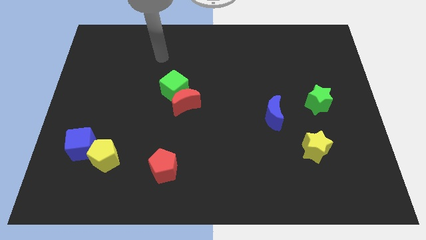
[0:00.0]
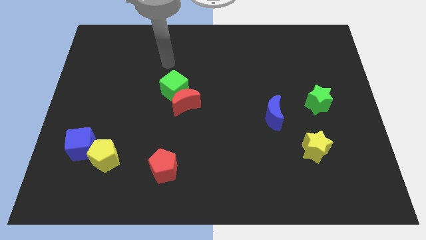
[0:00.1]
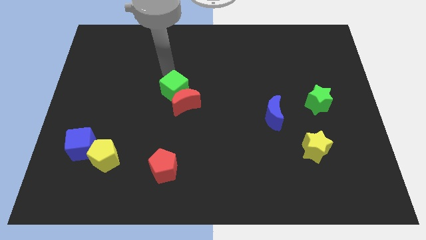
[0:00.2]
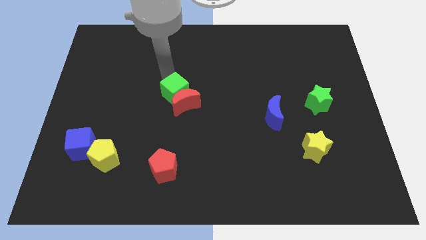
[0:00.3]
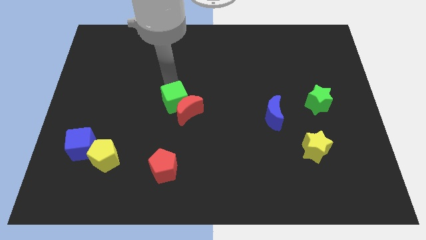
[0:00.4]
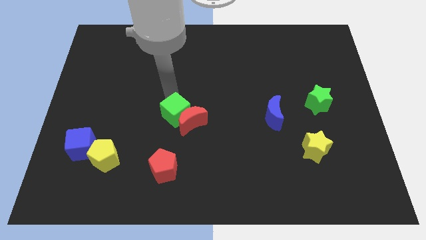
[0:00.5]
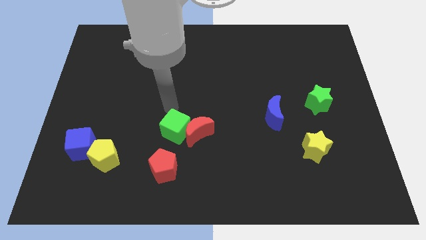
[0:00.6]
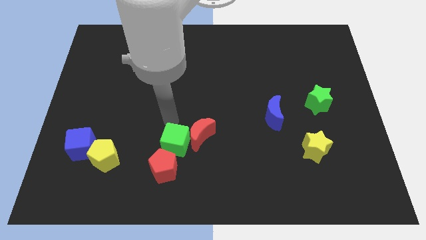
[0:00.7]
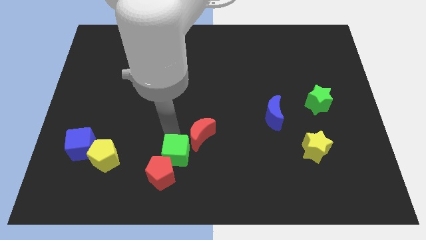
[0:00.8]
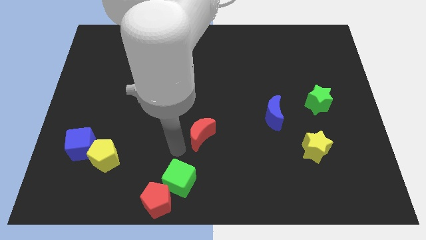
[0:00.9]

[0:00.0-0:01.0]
move the red moon away from the green cube

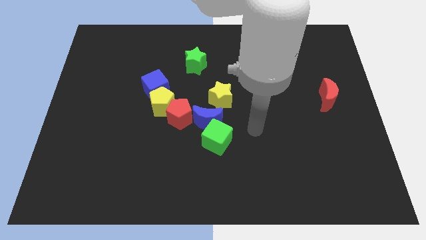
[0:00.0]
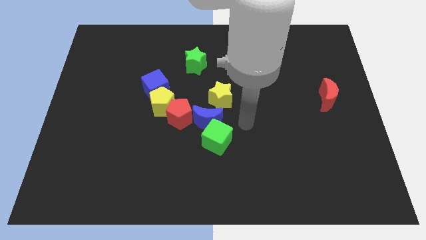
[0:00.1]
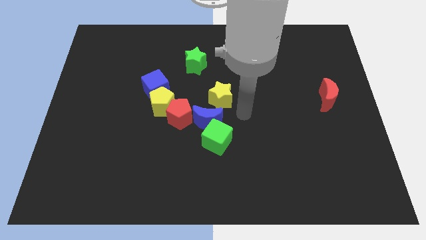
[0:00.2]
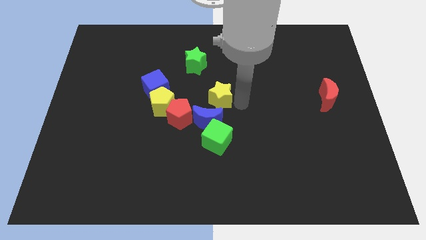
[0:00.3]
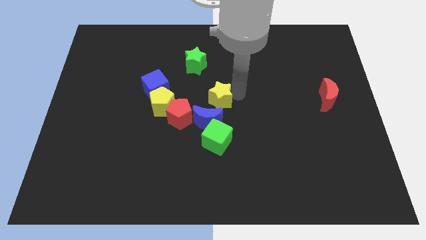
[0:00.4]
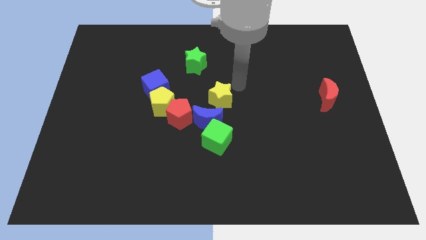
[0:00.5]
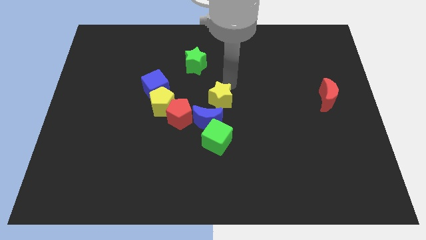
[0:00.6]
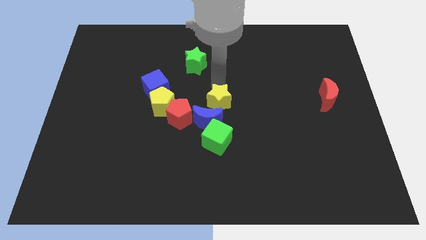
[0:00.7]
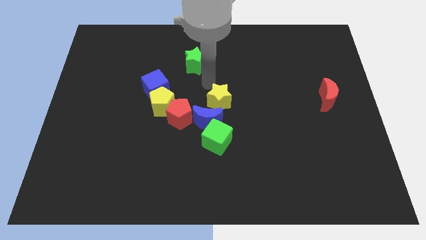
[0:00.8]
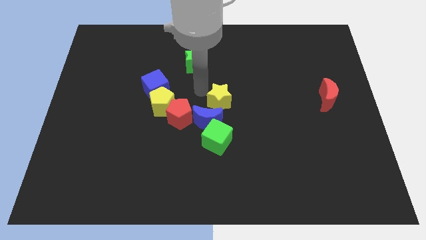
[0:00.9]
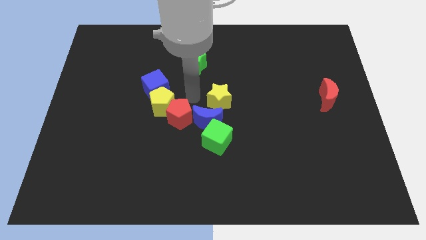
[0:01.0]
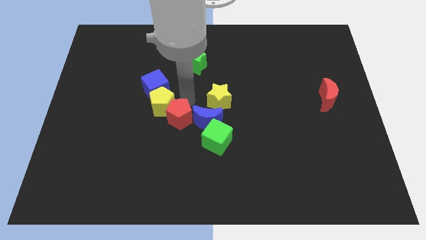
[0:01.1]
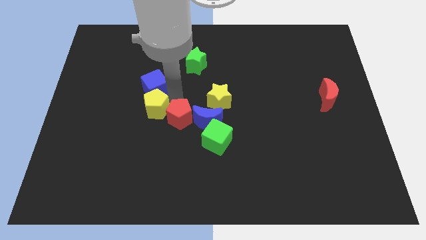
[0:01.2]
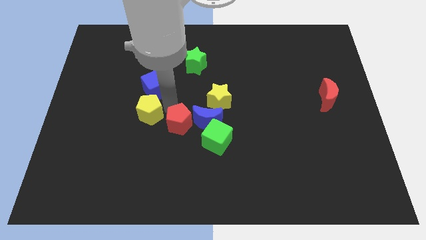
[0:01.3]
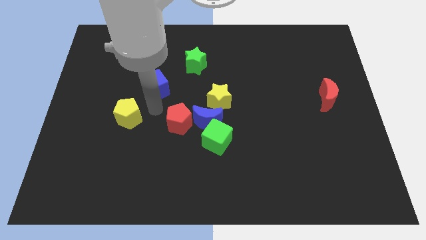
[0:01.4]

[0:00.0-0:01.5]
pull the blue cube apart from the yellow pentagon

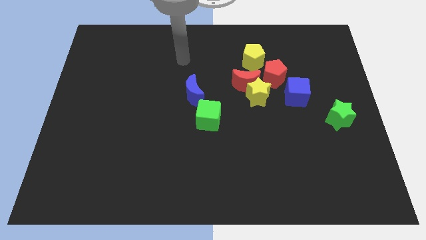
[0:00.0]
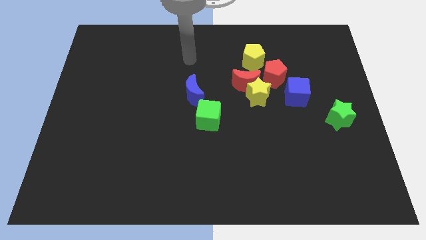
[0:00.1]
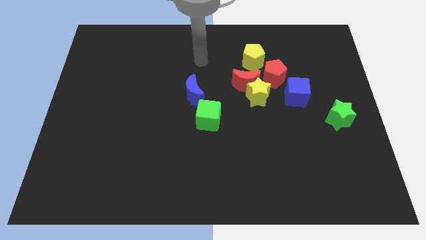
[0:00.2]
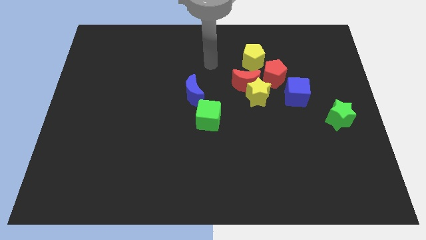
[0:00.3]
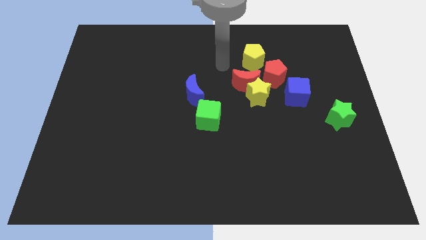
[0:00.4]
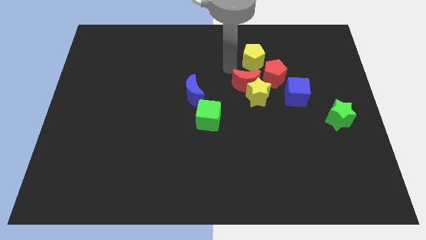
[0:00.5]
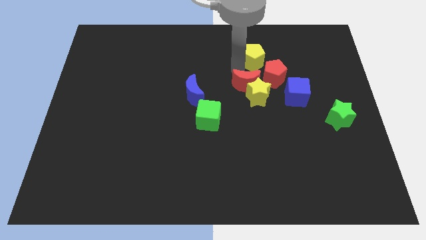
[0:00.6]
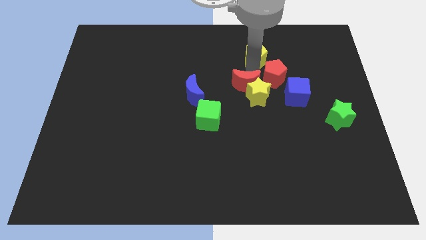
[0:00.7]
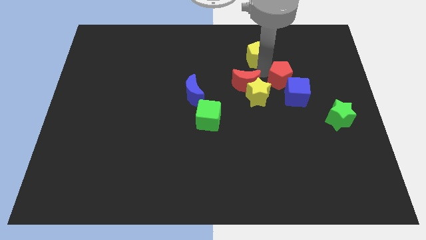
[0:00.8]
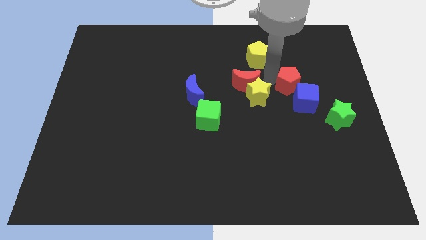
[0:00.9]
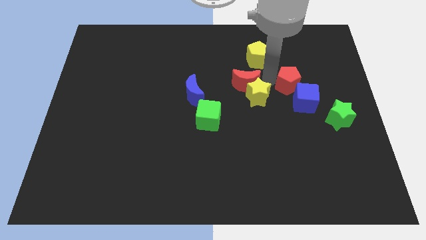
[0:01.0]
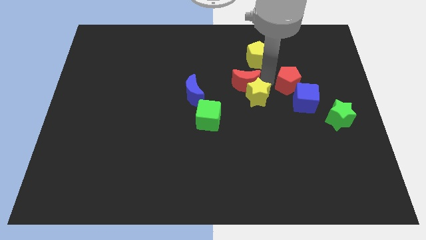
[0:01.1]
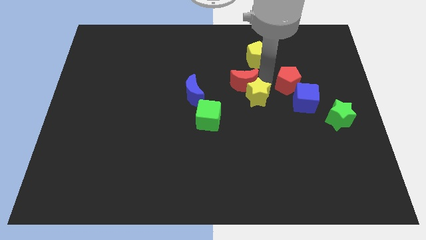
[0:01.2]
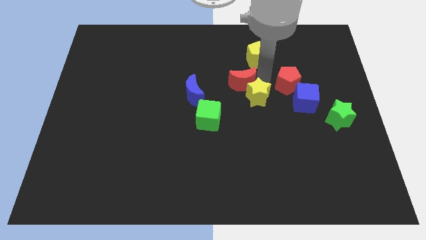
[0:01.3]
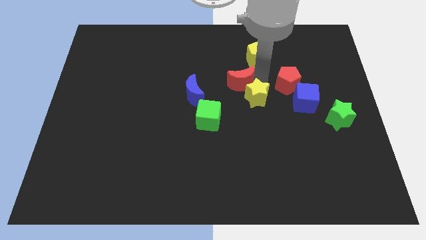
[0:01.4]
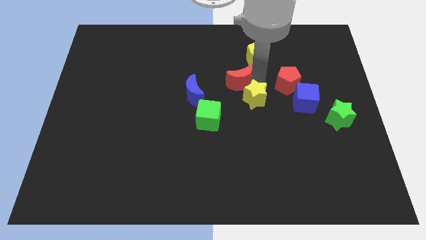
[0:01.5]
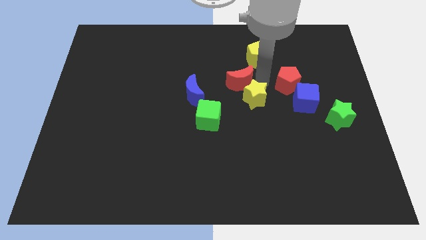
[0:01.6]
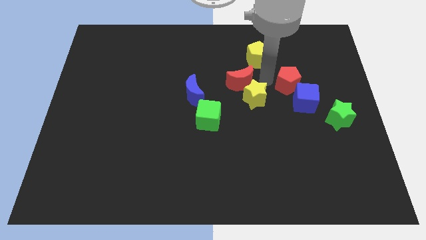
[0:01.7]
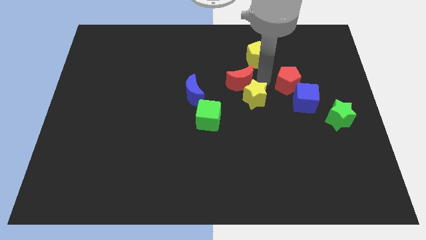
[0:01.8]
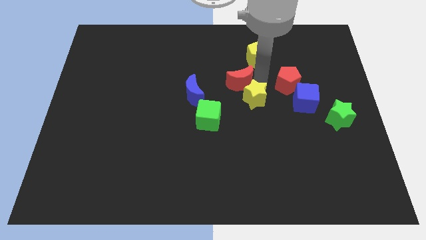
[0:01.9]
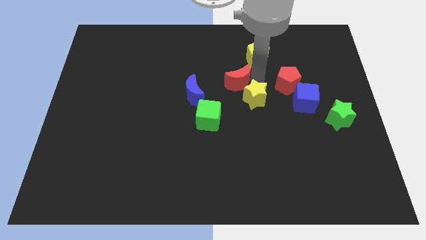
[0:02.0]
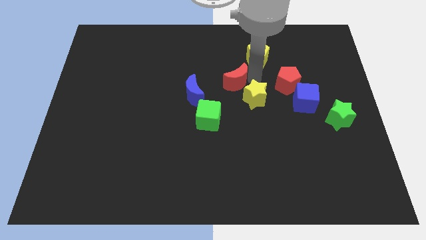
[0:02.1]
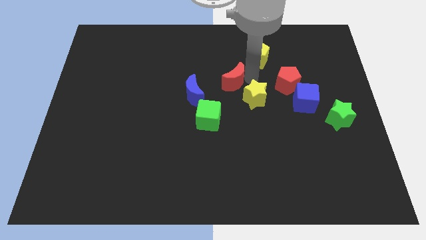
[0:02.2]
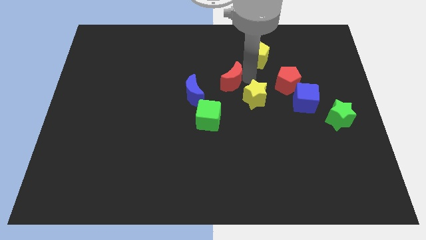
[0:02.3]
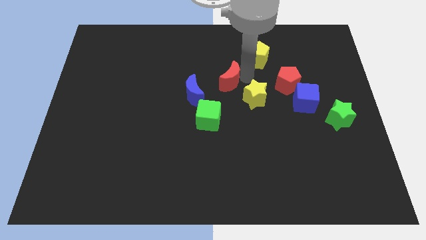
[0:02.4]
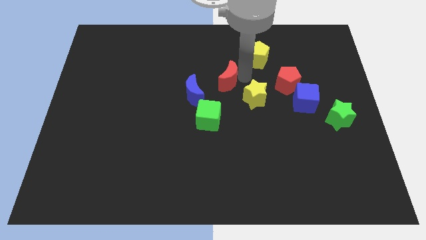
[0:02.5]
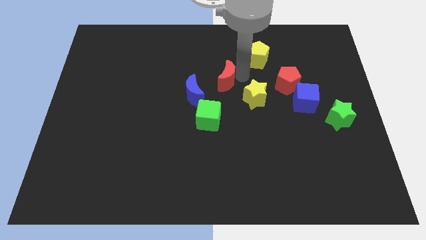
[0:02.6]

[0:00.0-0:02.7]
pull the red moon apart from the yellow star, red pentagon, and yellow pentagon

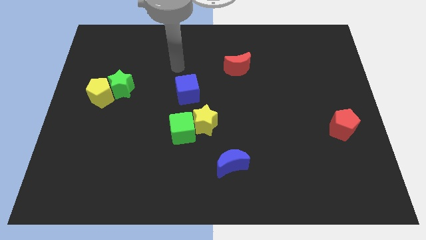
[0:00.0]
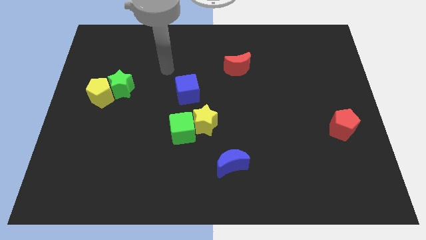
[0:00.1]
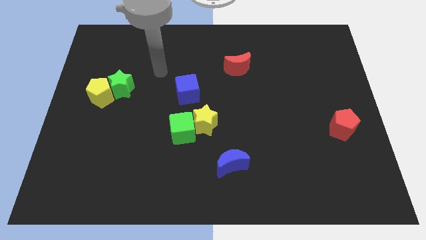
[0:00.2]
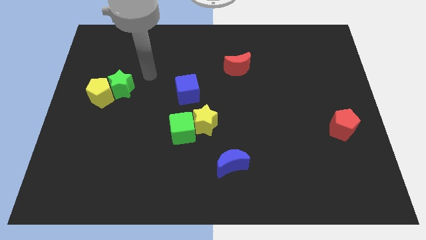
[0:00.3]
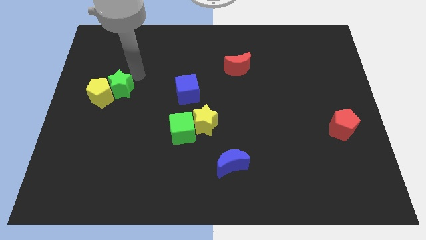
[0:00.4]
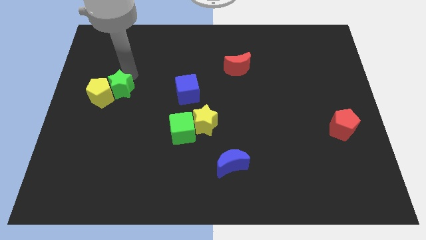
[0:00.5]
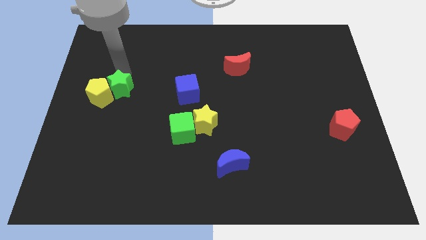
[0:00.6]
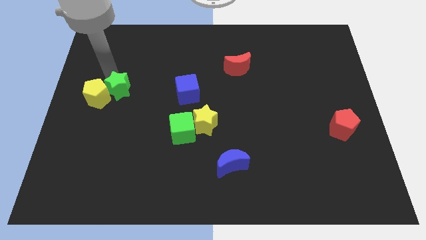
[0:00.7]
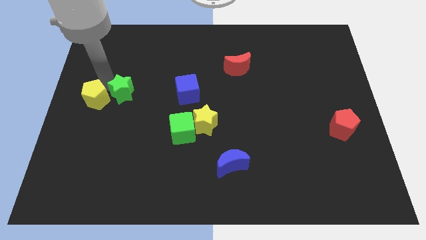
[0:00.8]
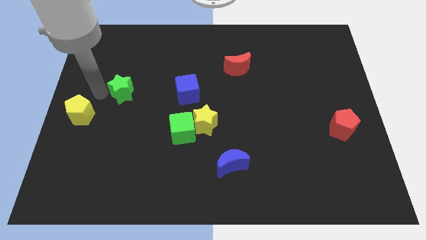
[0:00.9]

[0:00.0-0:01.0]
separate the green star from the yellow pentagon

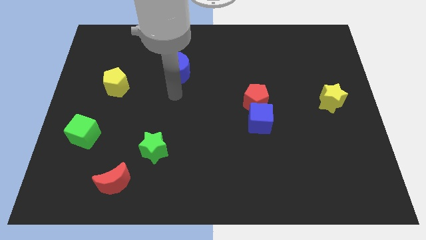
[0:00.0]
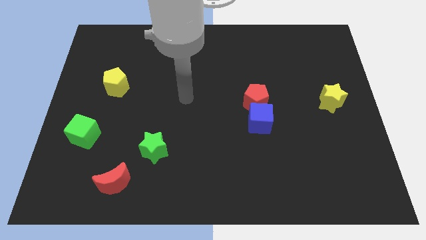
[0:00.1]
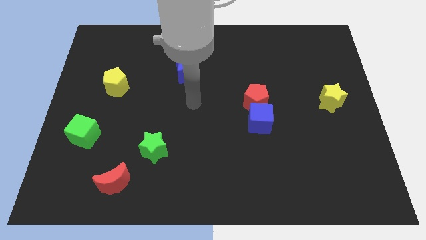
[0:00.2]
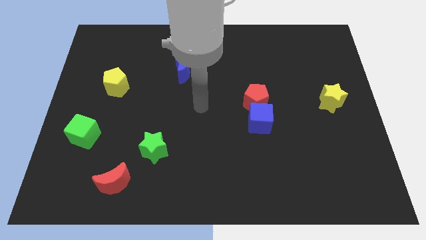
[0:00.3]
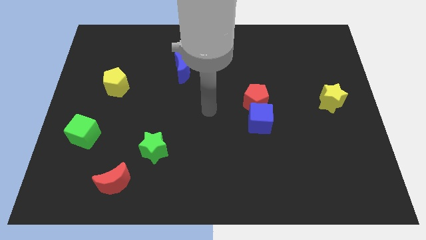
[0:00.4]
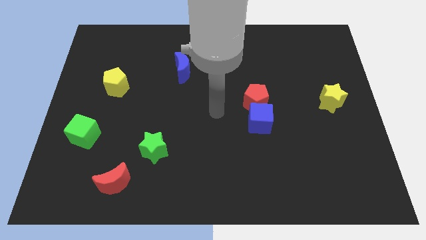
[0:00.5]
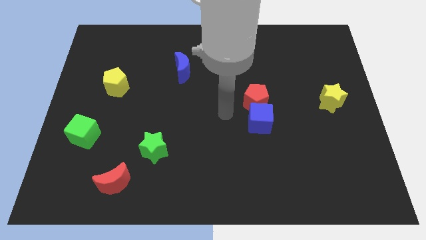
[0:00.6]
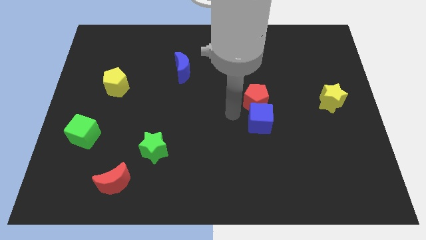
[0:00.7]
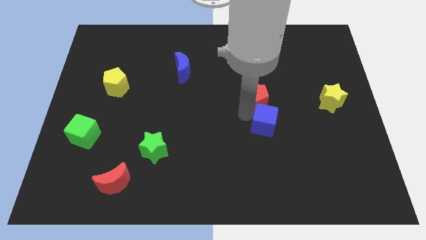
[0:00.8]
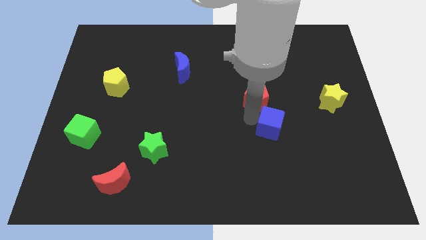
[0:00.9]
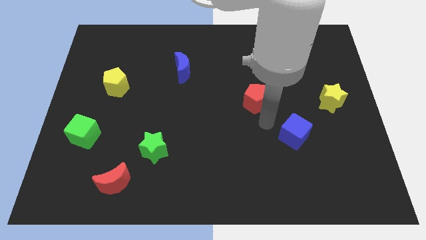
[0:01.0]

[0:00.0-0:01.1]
pull the red pentagon apart from the blue cube

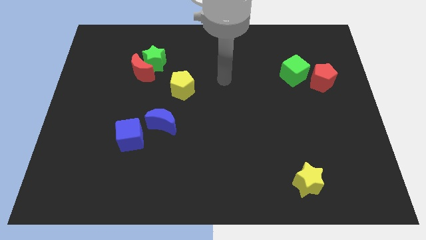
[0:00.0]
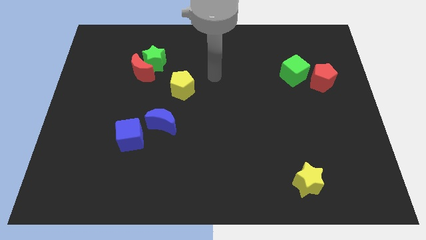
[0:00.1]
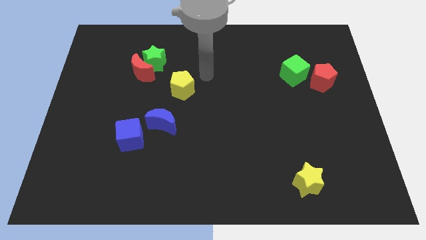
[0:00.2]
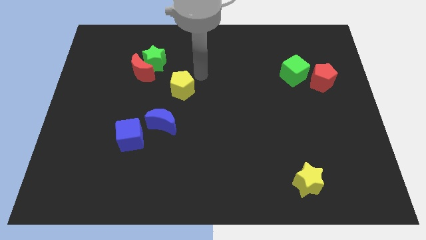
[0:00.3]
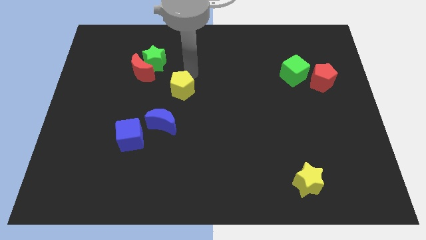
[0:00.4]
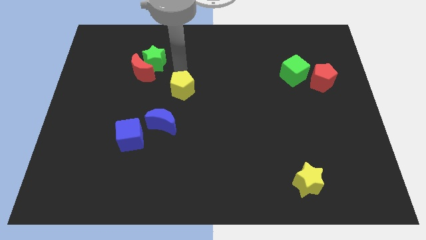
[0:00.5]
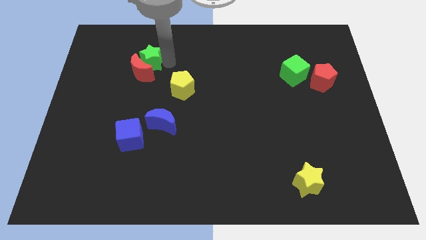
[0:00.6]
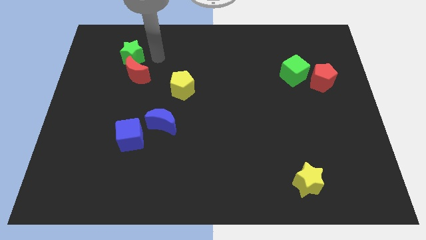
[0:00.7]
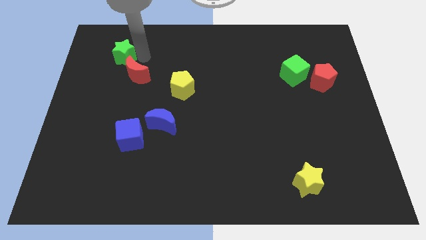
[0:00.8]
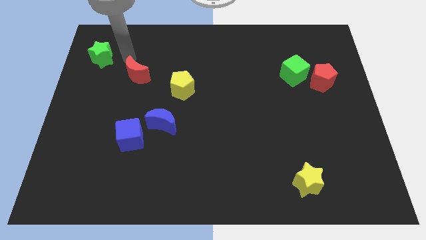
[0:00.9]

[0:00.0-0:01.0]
pull the red moon apart from the green star

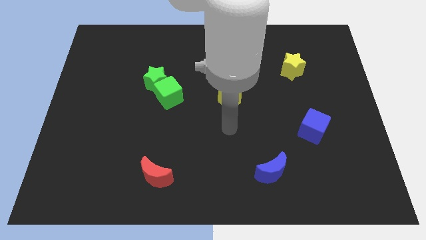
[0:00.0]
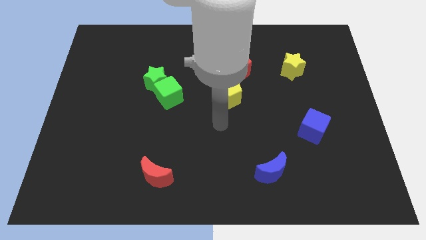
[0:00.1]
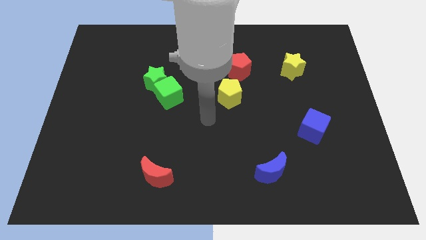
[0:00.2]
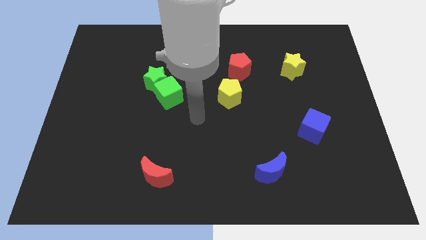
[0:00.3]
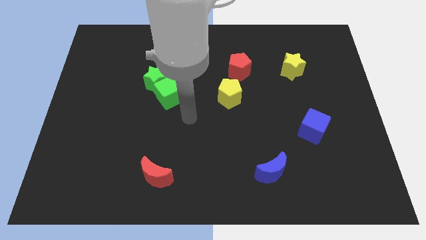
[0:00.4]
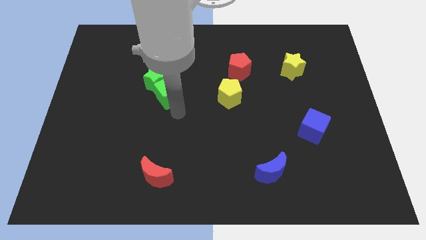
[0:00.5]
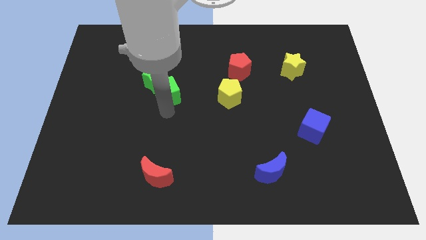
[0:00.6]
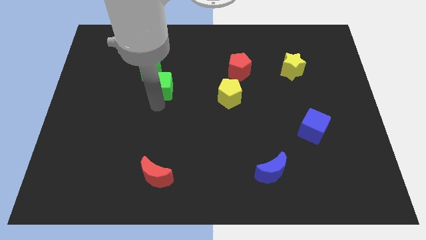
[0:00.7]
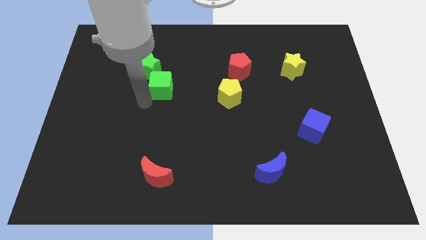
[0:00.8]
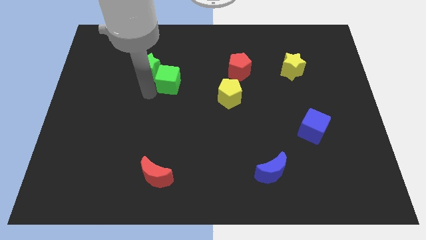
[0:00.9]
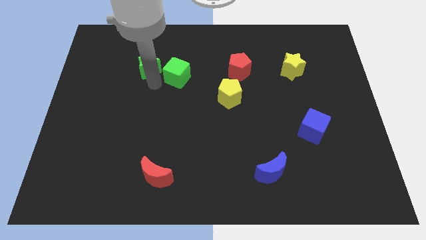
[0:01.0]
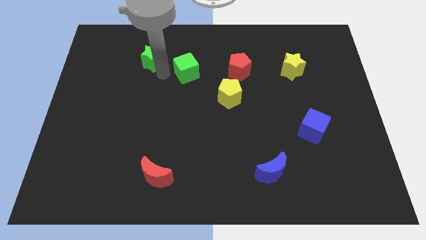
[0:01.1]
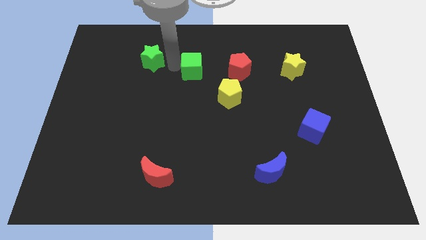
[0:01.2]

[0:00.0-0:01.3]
move the green cube away from the green star
